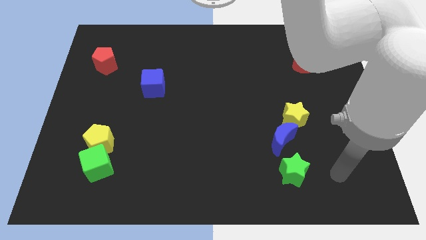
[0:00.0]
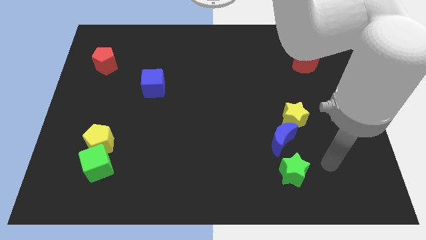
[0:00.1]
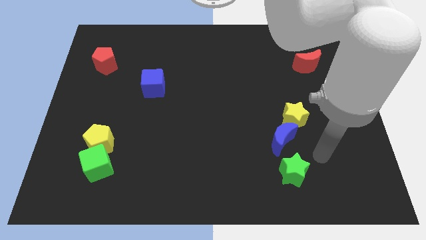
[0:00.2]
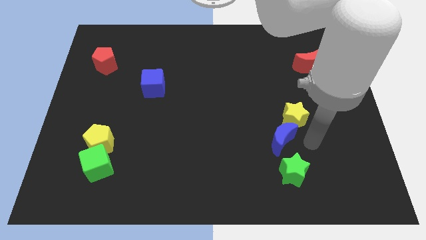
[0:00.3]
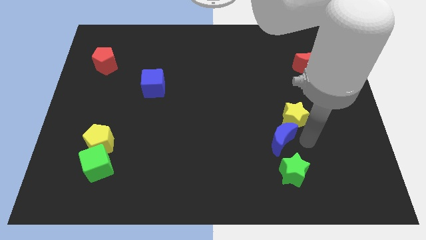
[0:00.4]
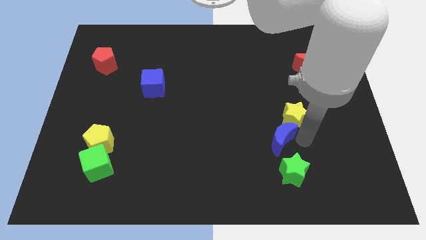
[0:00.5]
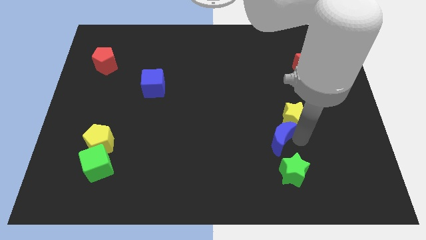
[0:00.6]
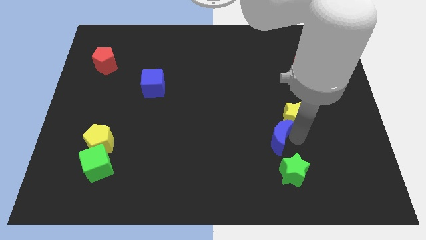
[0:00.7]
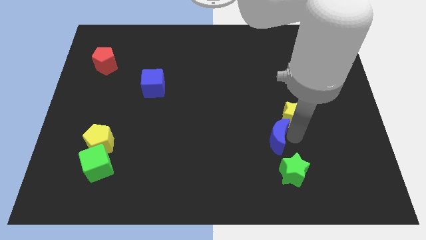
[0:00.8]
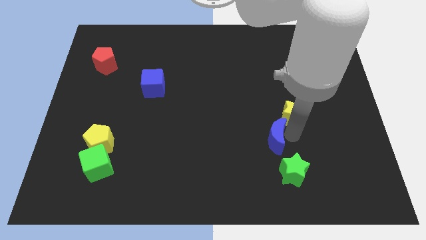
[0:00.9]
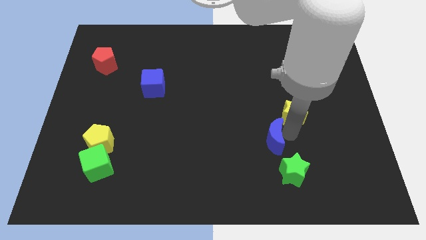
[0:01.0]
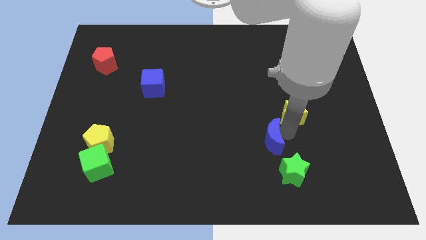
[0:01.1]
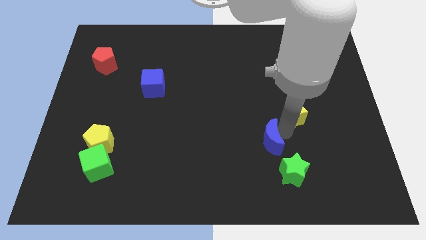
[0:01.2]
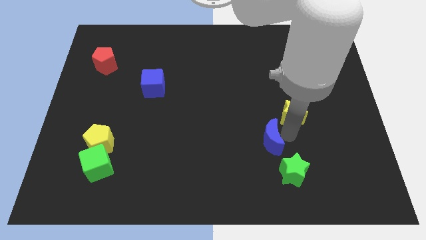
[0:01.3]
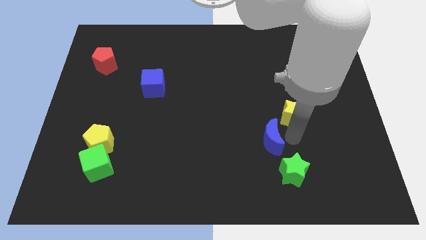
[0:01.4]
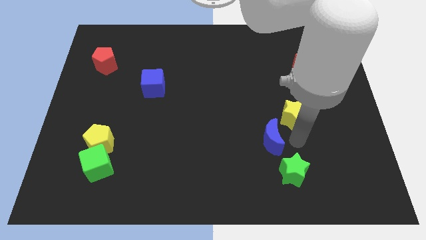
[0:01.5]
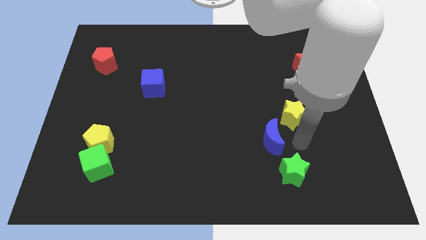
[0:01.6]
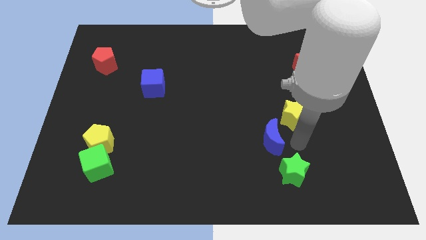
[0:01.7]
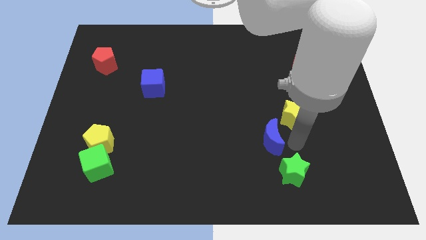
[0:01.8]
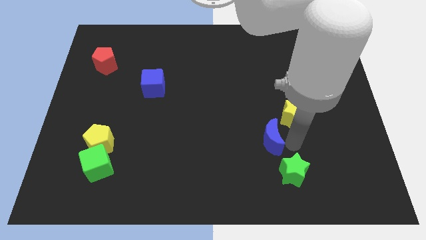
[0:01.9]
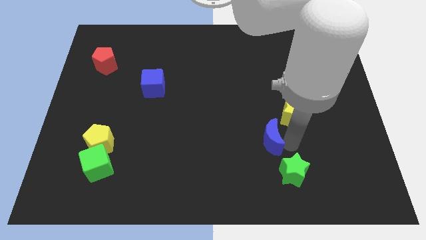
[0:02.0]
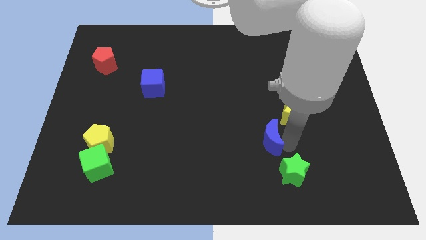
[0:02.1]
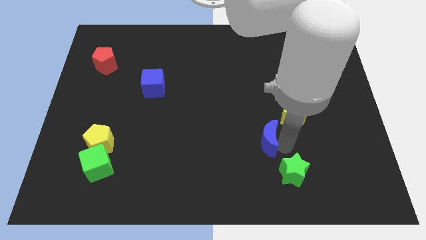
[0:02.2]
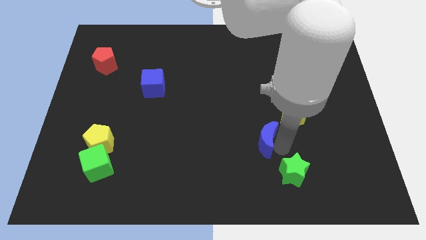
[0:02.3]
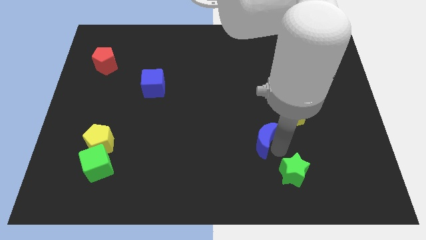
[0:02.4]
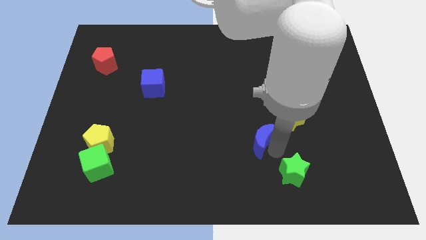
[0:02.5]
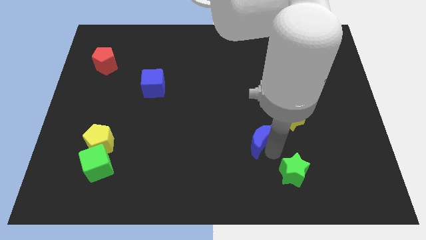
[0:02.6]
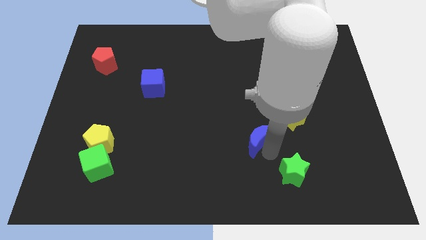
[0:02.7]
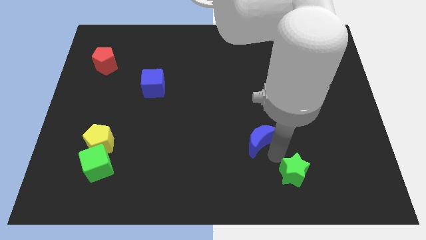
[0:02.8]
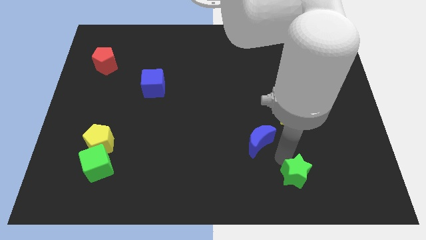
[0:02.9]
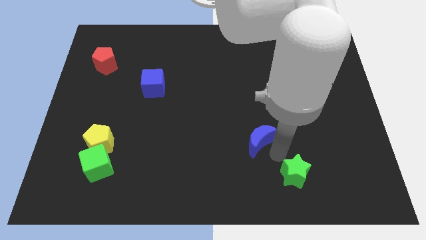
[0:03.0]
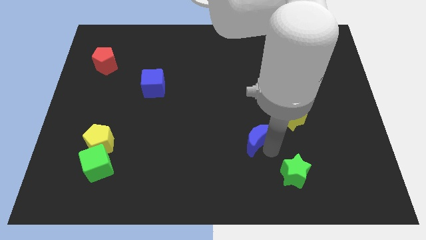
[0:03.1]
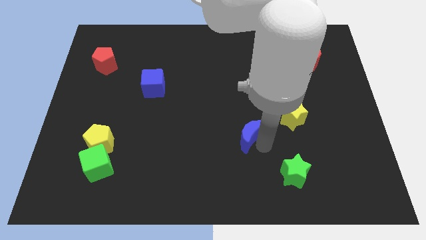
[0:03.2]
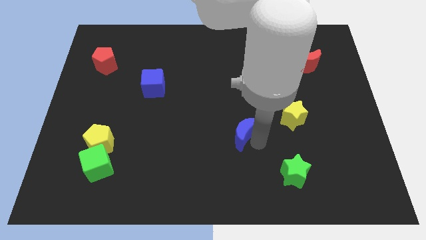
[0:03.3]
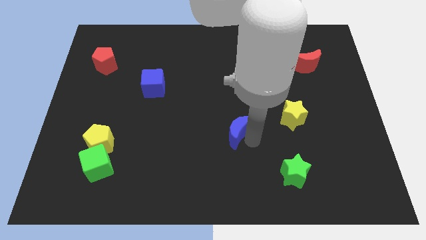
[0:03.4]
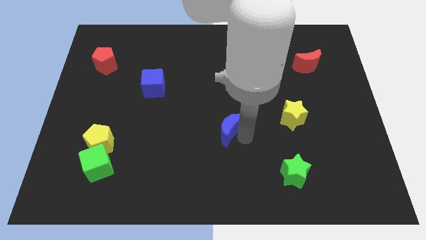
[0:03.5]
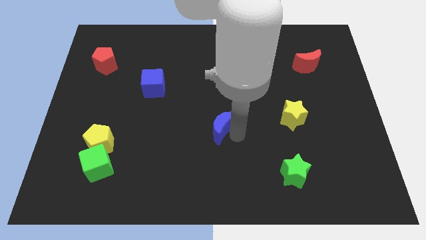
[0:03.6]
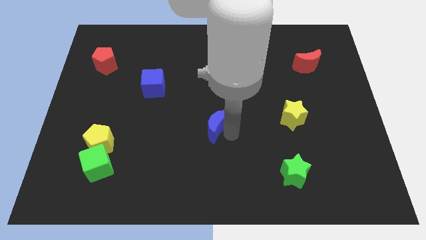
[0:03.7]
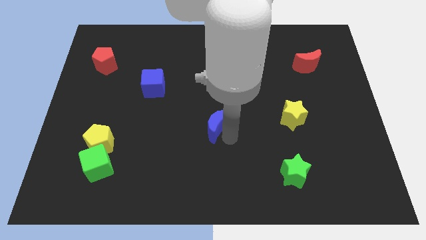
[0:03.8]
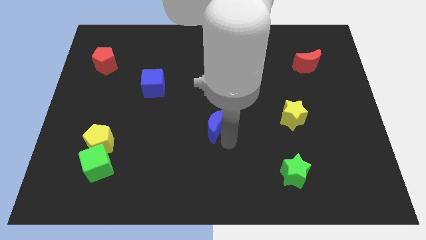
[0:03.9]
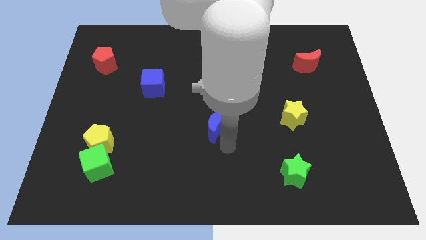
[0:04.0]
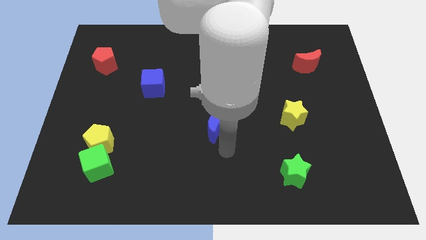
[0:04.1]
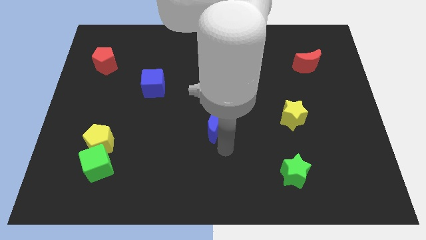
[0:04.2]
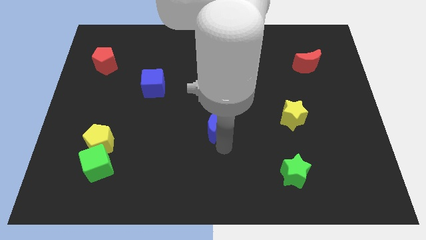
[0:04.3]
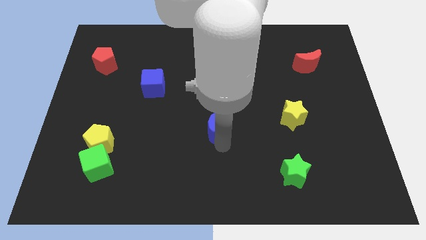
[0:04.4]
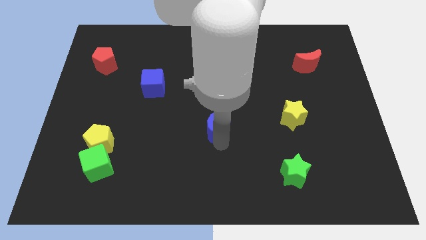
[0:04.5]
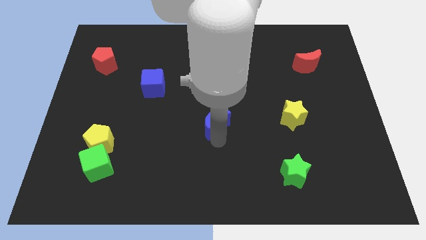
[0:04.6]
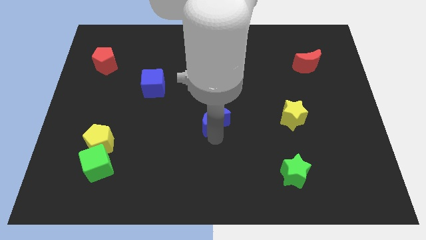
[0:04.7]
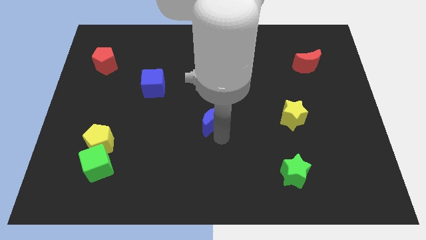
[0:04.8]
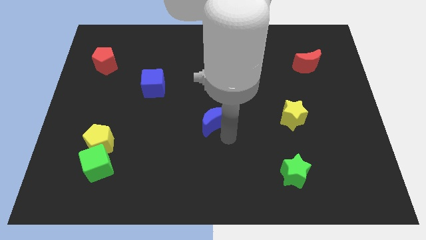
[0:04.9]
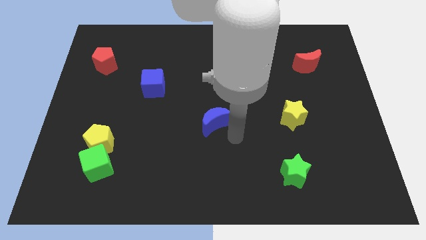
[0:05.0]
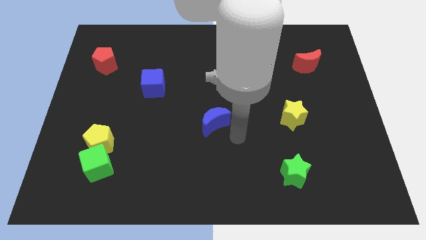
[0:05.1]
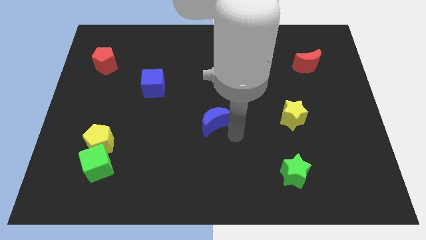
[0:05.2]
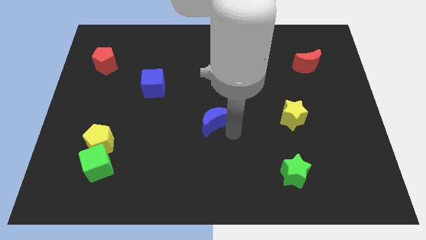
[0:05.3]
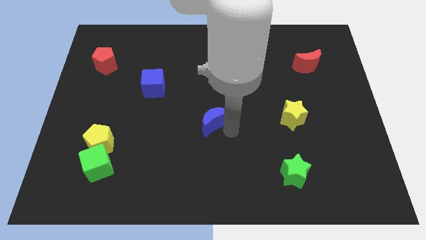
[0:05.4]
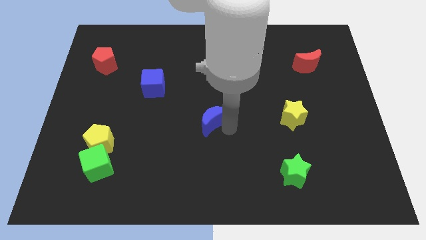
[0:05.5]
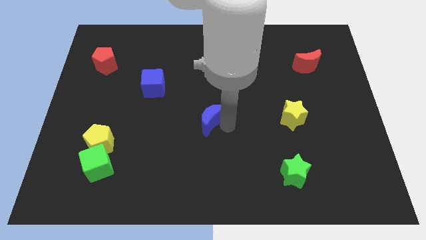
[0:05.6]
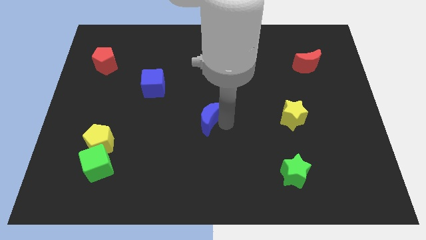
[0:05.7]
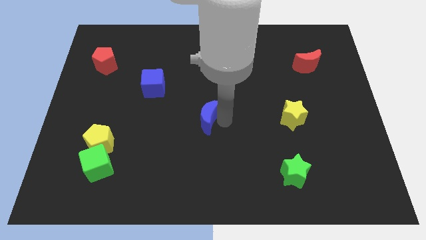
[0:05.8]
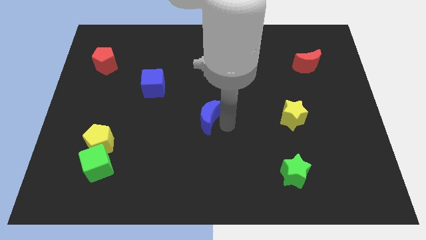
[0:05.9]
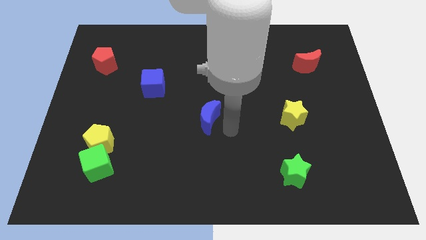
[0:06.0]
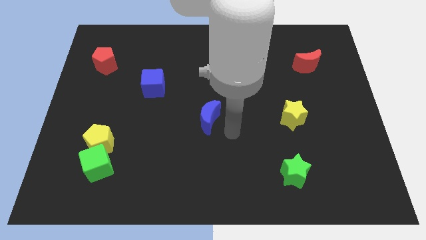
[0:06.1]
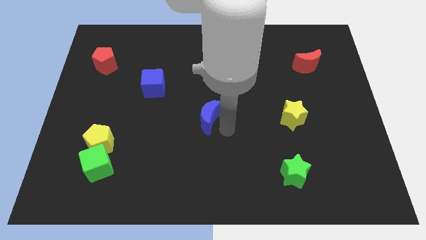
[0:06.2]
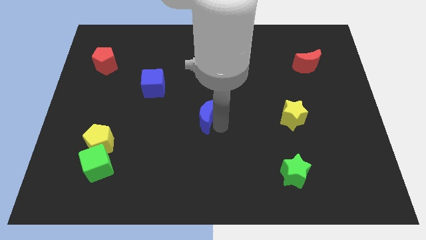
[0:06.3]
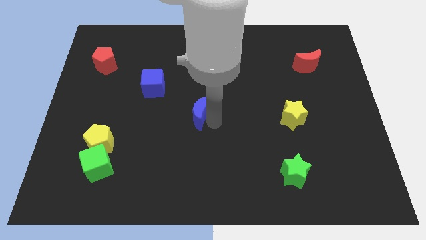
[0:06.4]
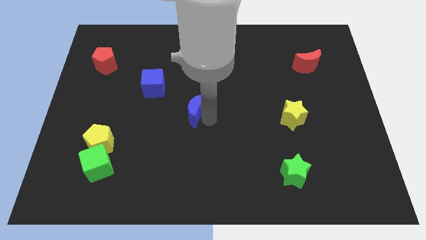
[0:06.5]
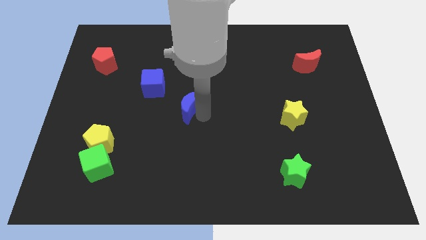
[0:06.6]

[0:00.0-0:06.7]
put the blue moon to the bottom right side of the blue cube
